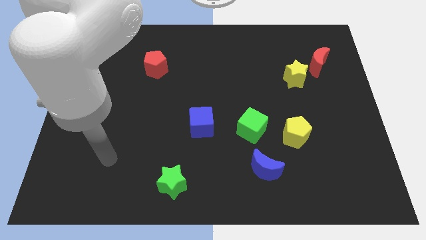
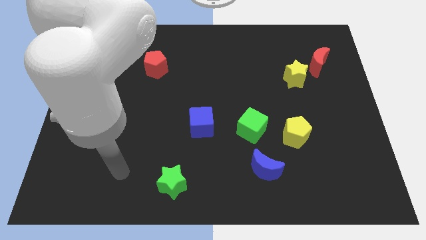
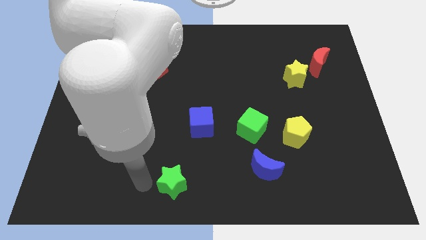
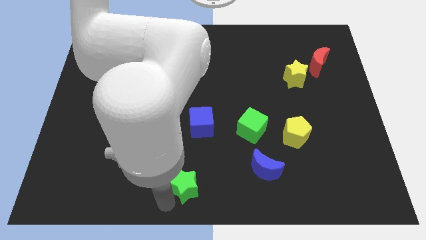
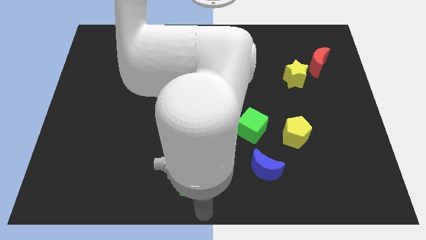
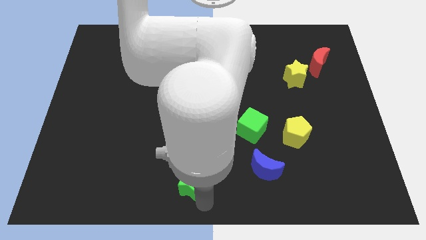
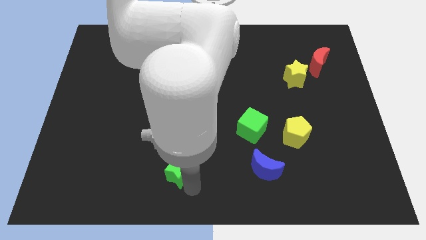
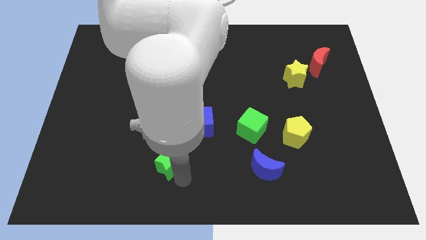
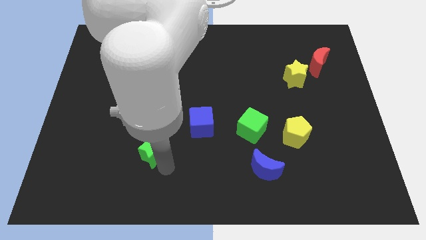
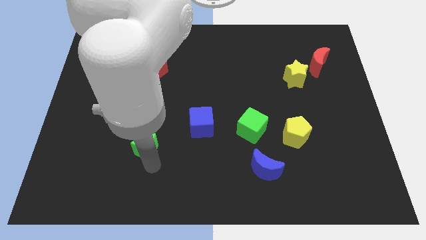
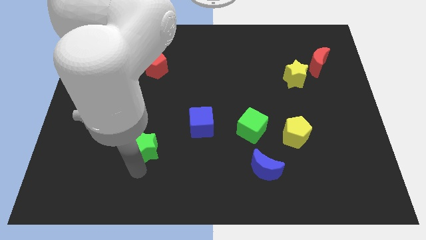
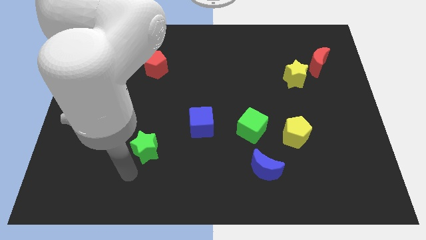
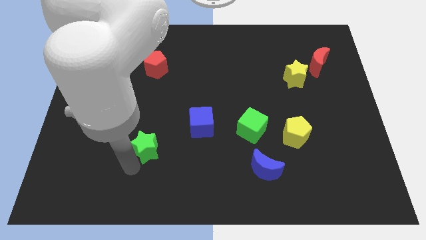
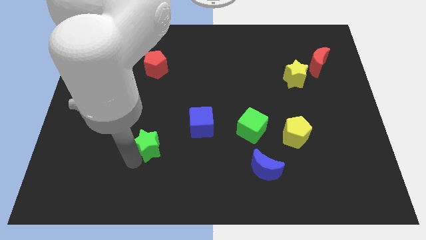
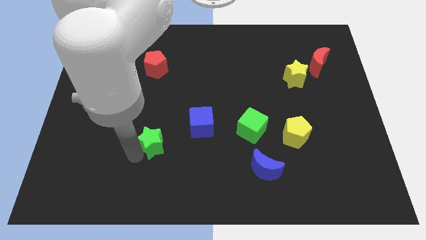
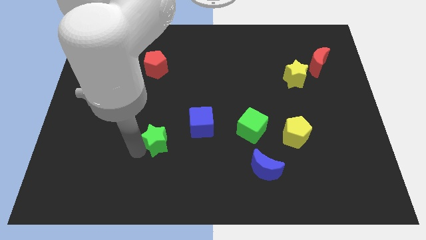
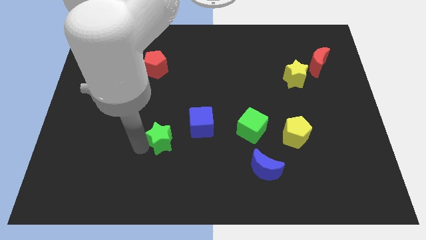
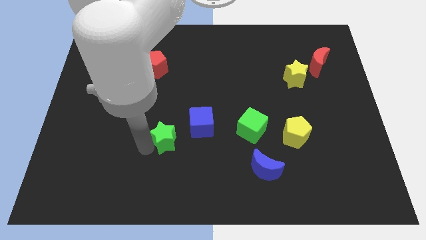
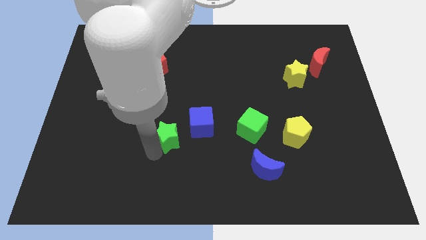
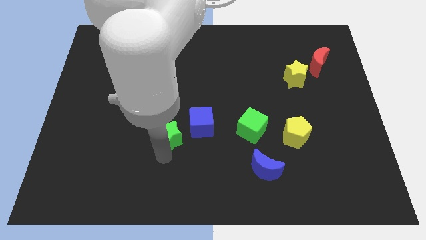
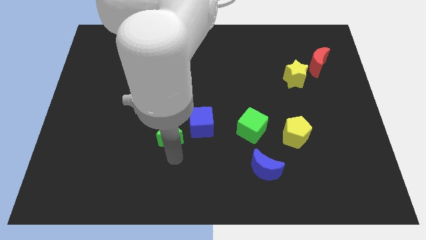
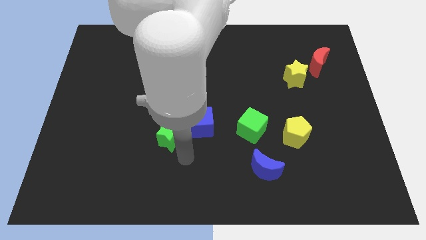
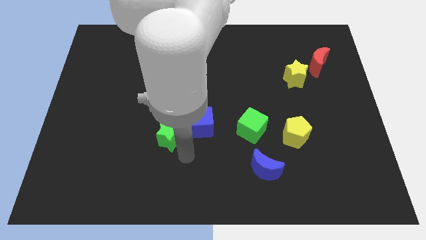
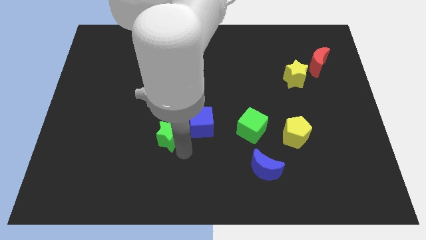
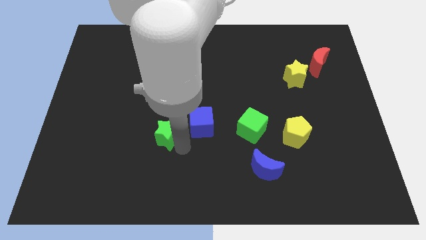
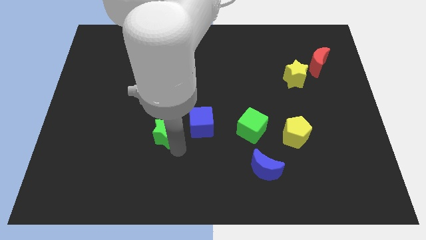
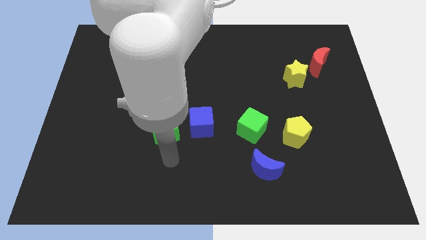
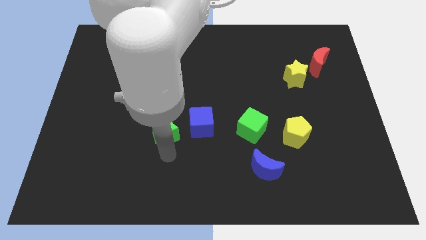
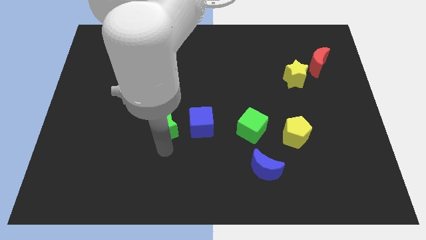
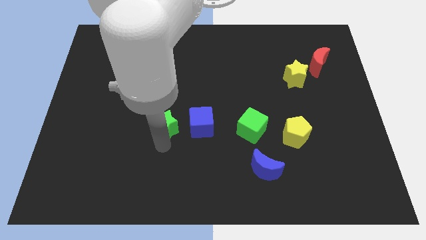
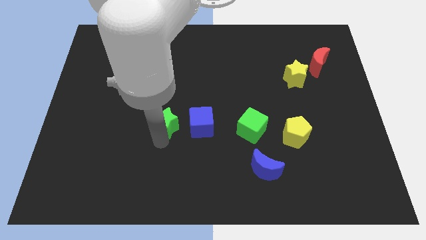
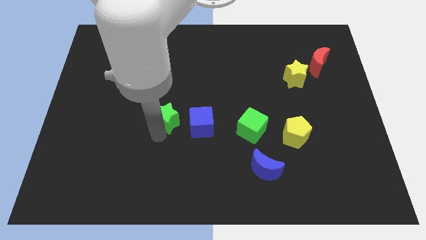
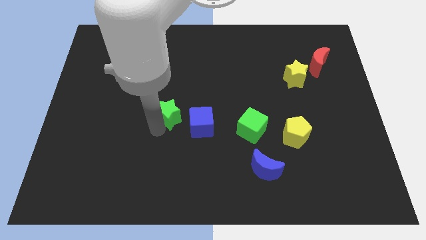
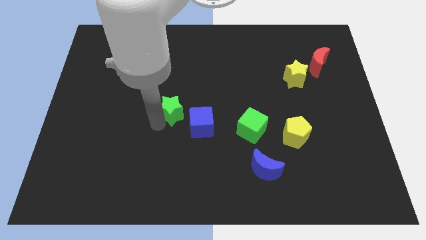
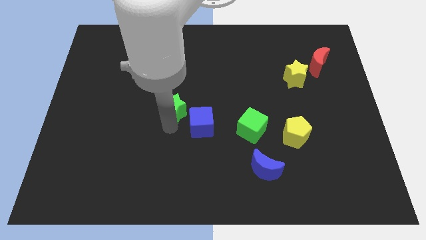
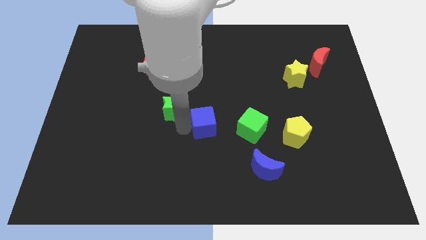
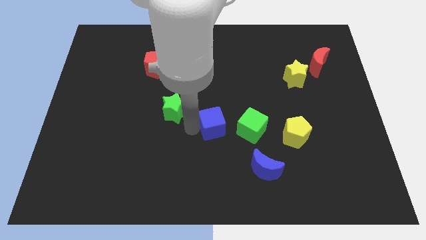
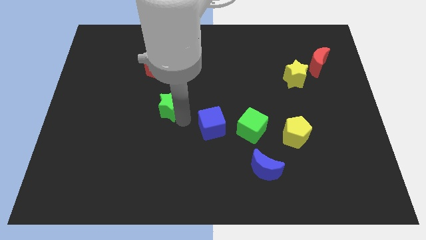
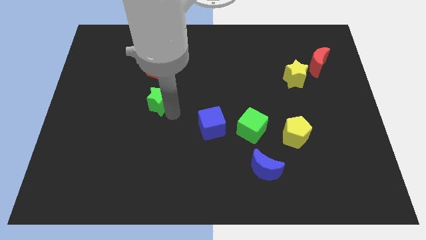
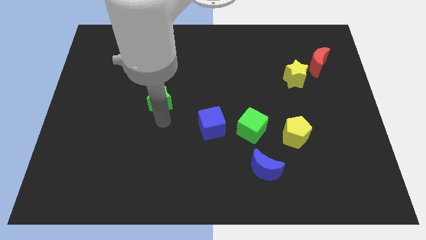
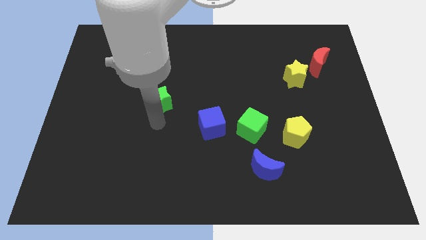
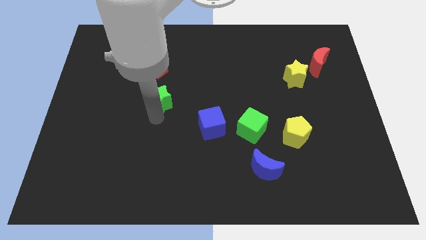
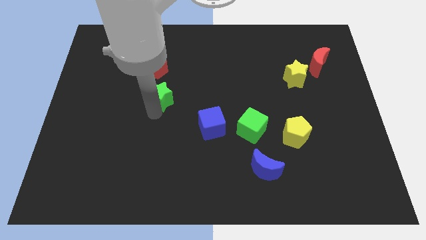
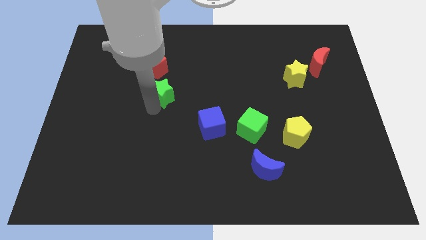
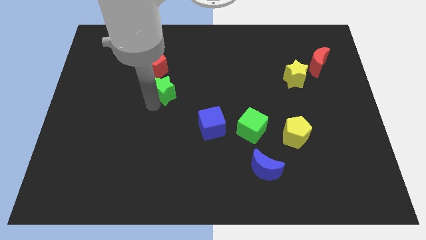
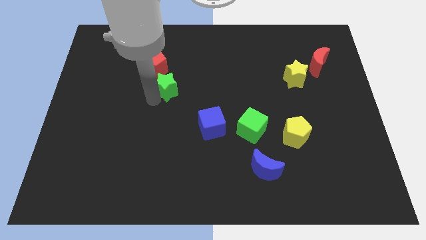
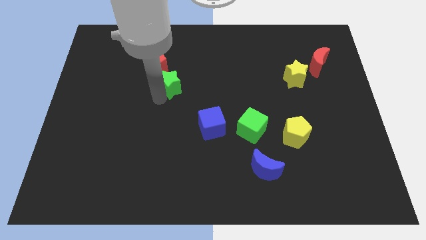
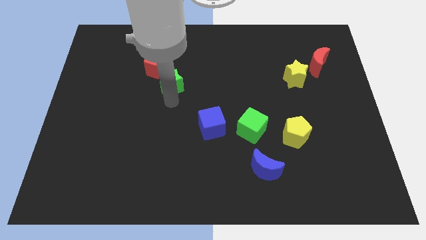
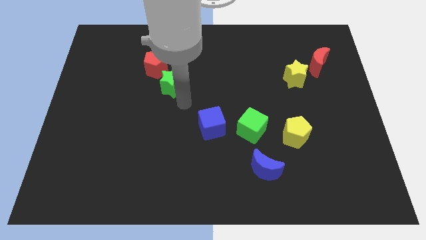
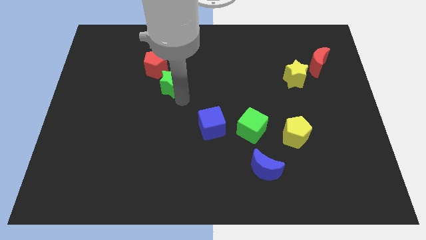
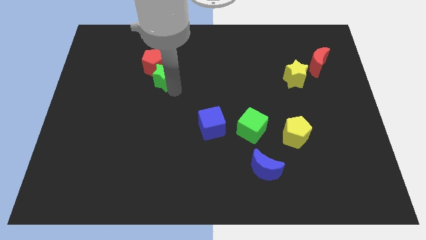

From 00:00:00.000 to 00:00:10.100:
put the green star next to the red pentagon
